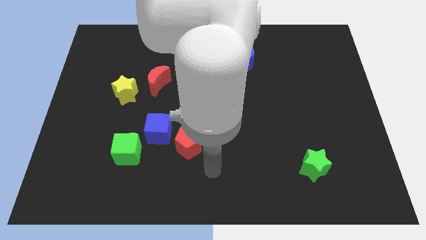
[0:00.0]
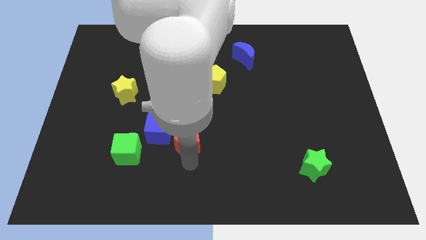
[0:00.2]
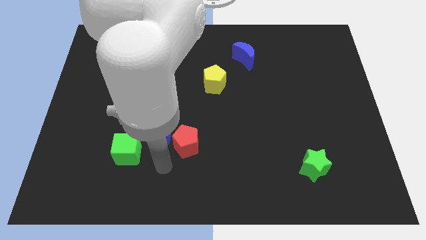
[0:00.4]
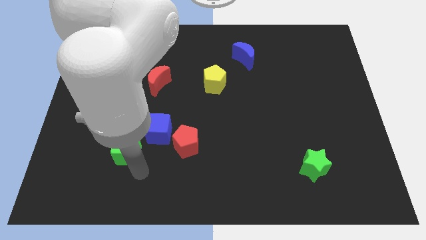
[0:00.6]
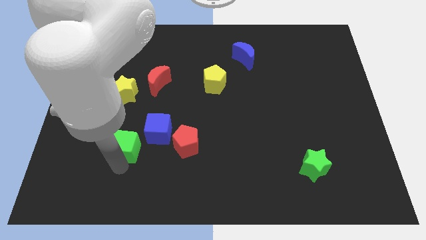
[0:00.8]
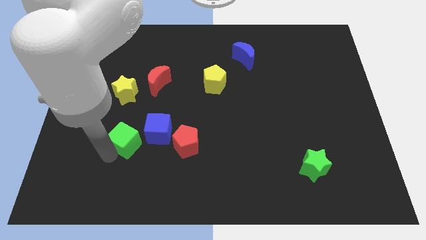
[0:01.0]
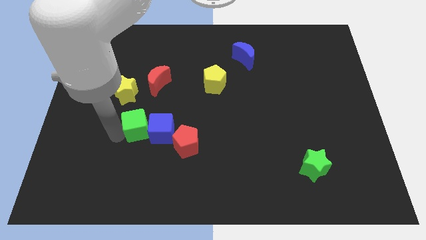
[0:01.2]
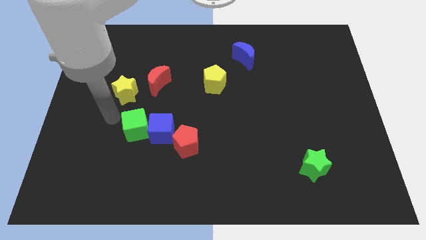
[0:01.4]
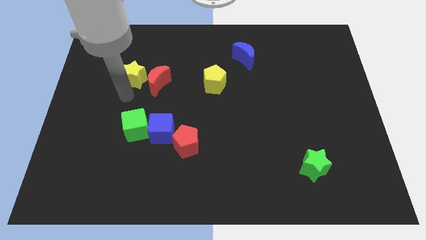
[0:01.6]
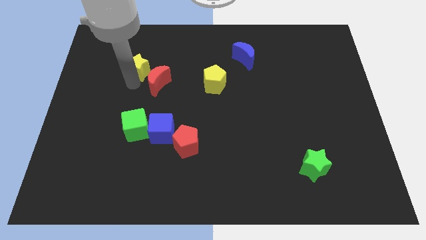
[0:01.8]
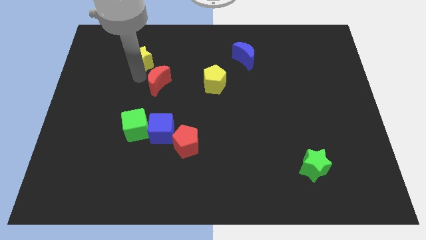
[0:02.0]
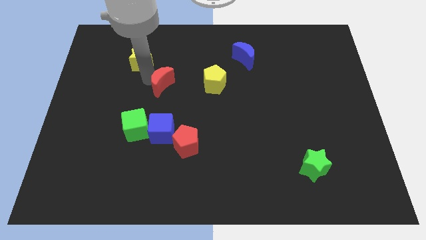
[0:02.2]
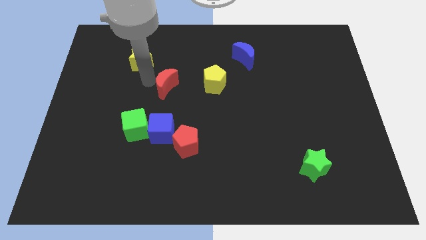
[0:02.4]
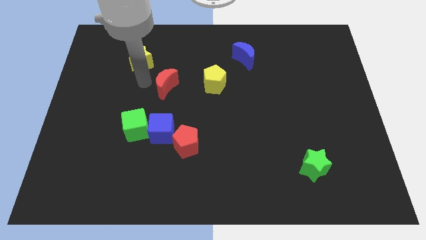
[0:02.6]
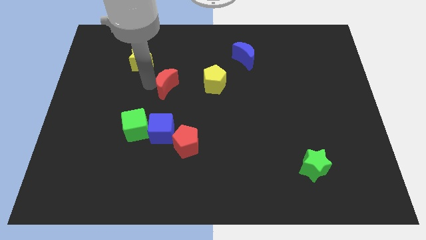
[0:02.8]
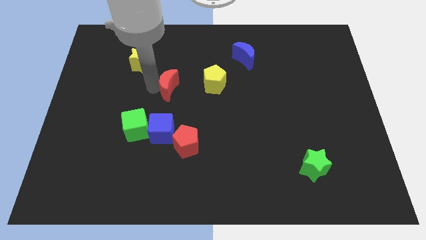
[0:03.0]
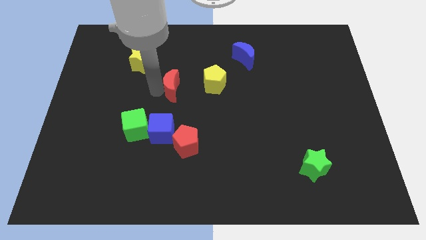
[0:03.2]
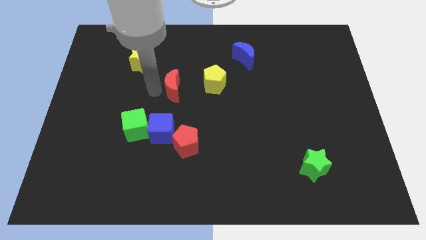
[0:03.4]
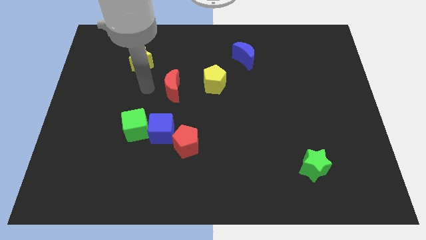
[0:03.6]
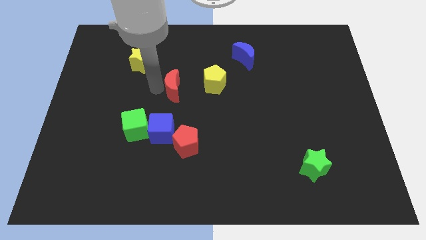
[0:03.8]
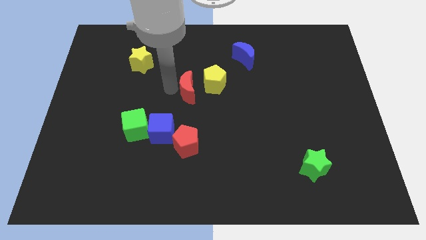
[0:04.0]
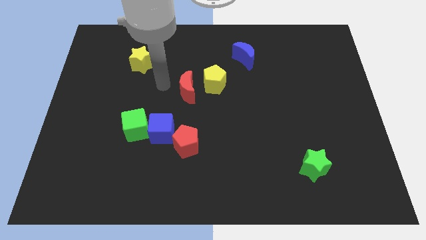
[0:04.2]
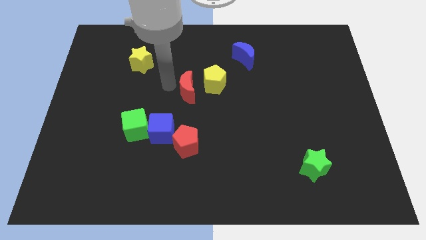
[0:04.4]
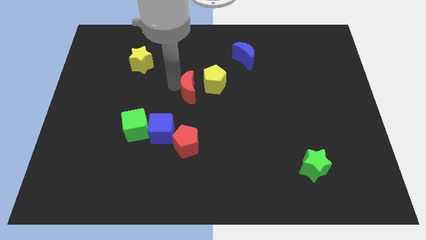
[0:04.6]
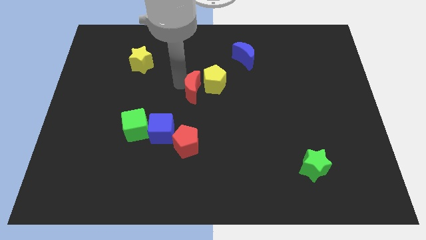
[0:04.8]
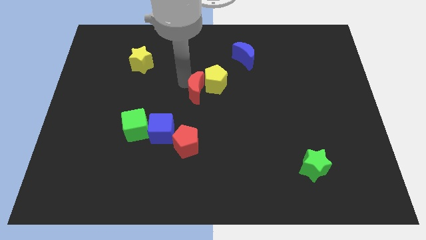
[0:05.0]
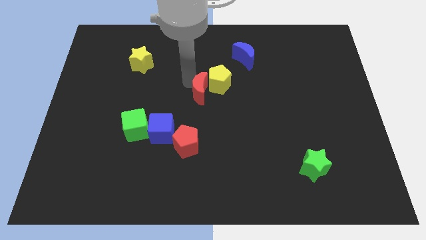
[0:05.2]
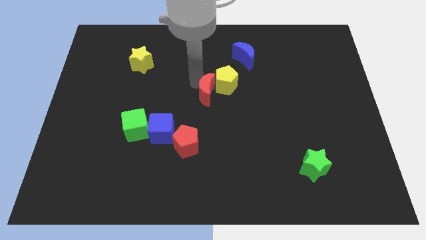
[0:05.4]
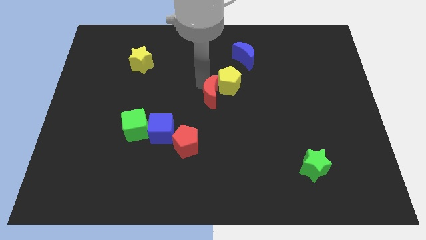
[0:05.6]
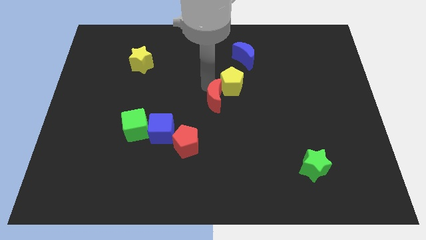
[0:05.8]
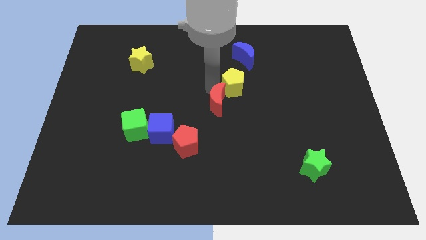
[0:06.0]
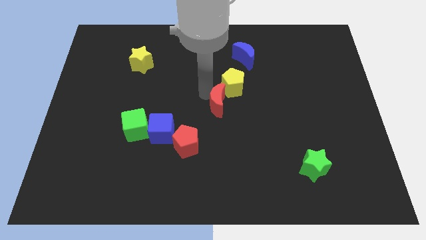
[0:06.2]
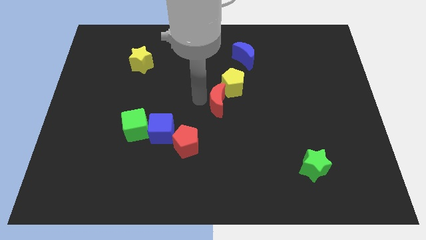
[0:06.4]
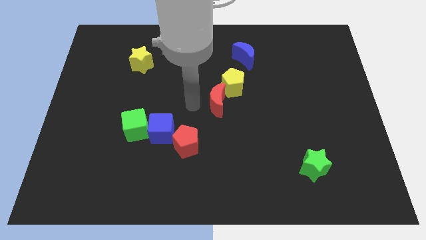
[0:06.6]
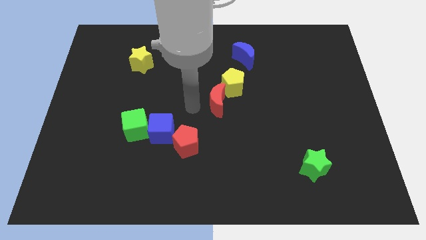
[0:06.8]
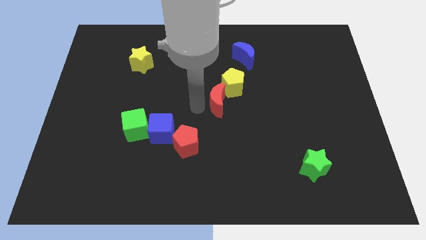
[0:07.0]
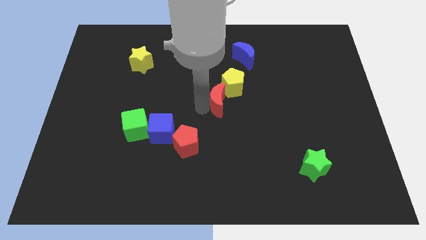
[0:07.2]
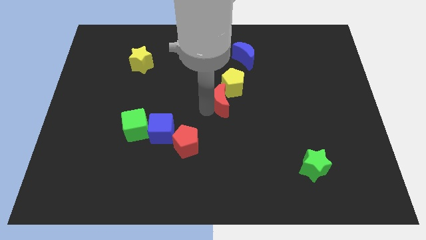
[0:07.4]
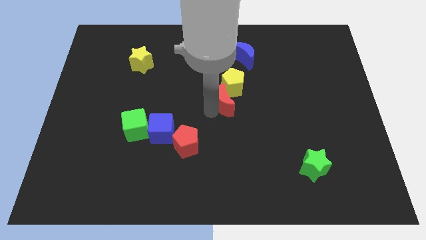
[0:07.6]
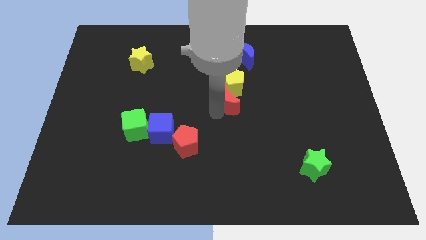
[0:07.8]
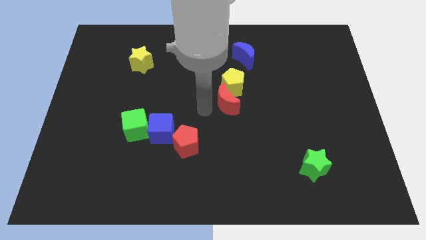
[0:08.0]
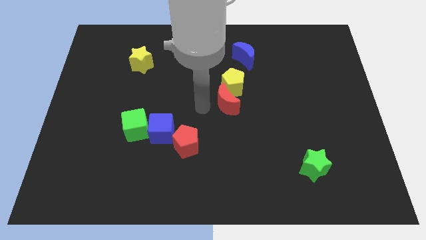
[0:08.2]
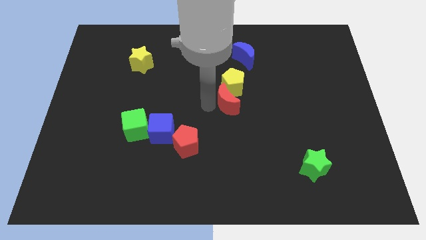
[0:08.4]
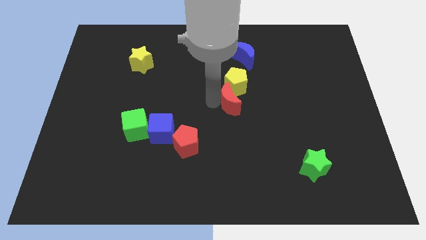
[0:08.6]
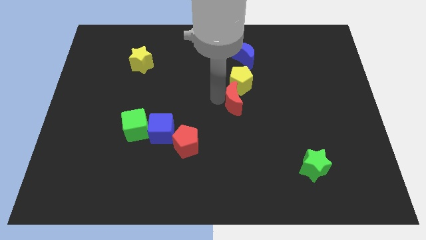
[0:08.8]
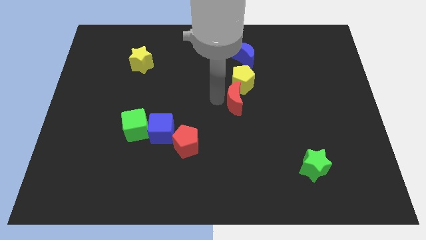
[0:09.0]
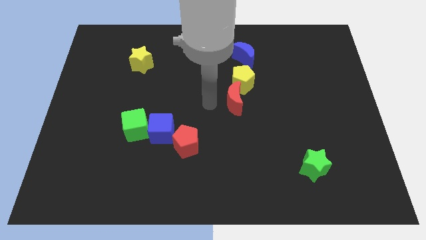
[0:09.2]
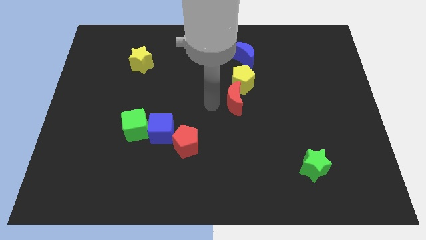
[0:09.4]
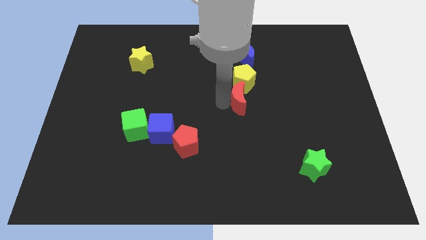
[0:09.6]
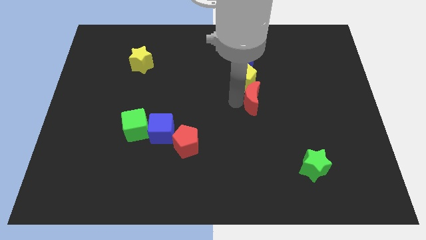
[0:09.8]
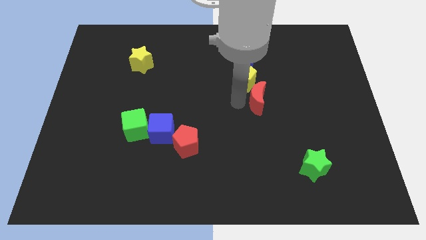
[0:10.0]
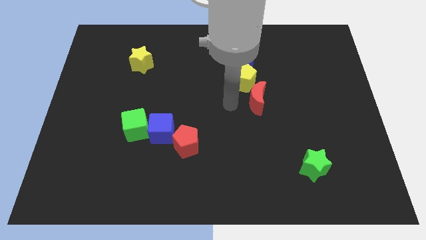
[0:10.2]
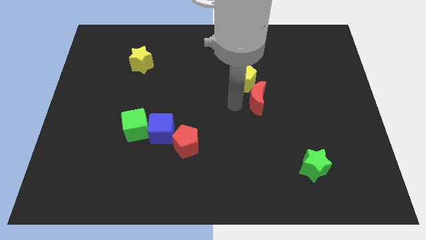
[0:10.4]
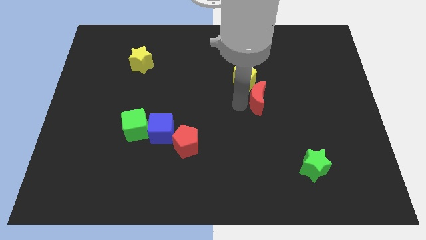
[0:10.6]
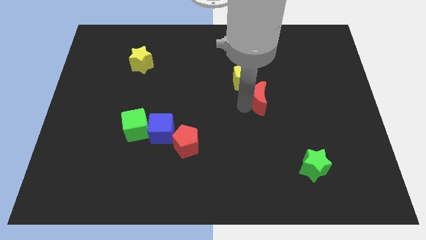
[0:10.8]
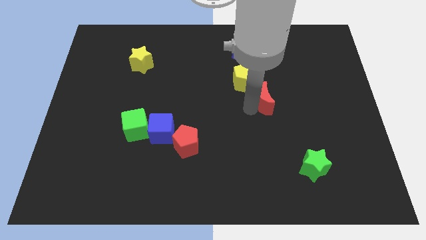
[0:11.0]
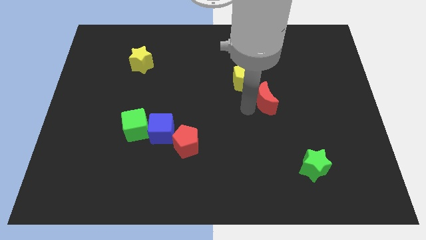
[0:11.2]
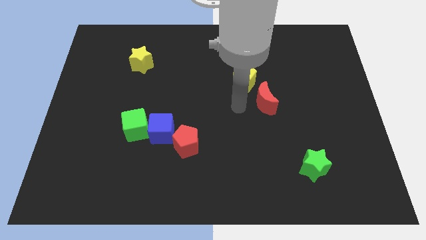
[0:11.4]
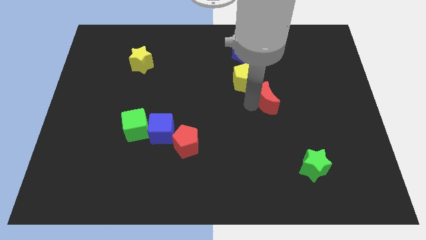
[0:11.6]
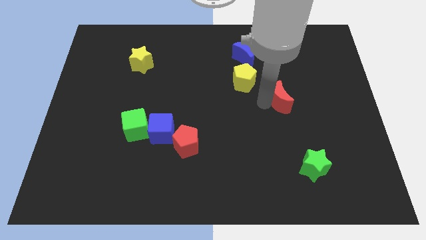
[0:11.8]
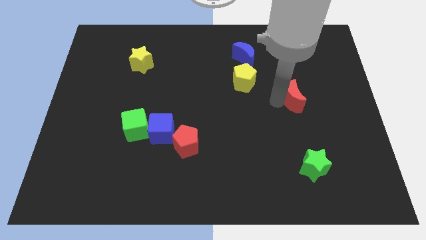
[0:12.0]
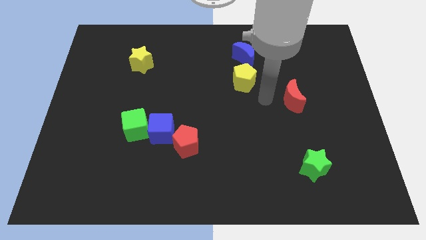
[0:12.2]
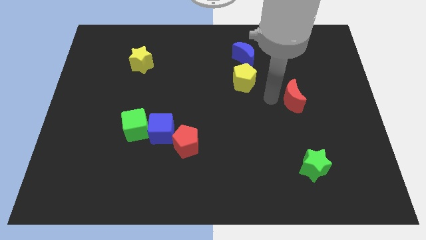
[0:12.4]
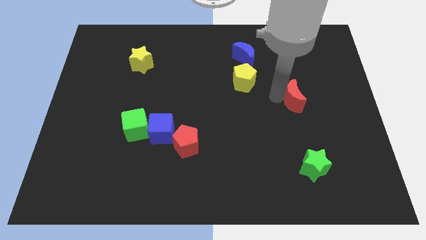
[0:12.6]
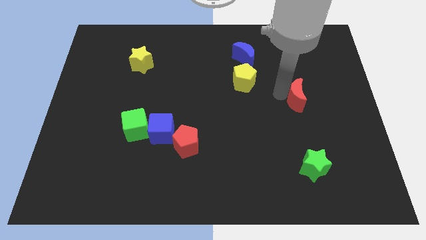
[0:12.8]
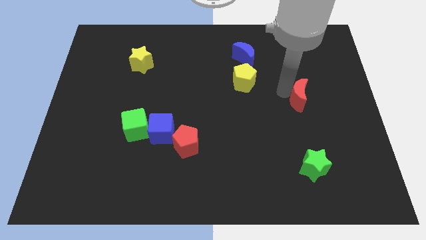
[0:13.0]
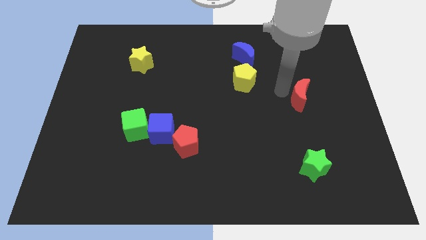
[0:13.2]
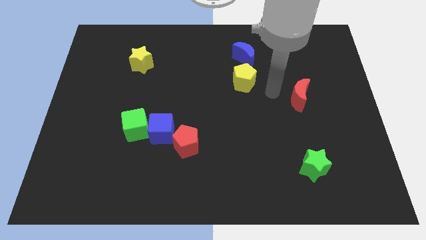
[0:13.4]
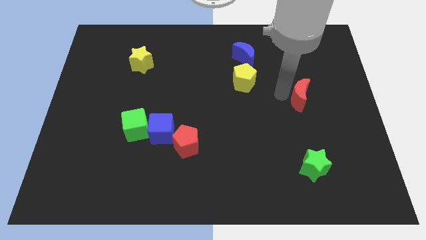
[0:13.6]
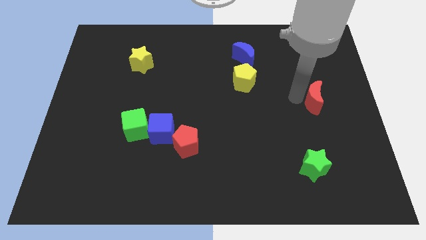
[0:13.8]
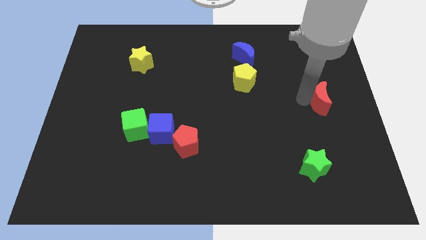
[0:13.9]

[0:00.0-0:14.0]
slide the red moon to the right side of the board
